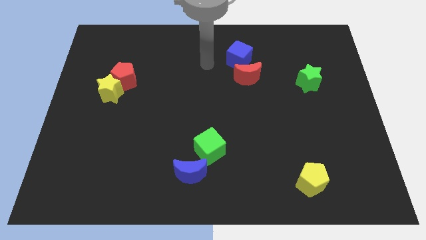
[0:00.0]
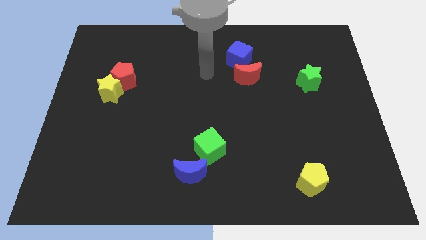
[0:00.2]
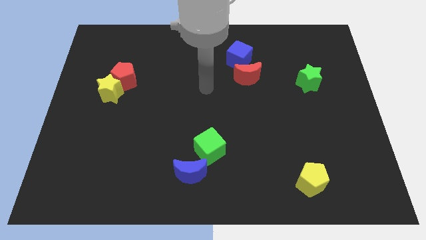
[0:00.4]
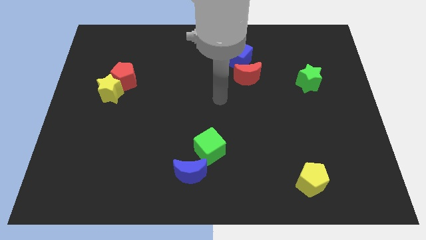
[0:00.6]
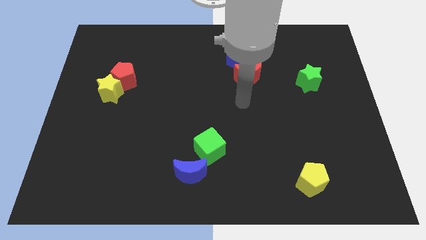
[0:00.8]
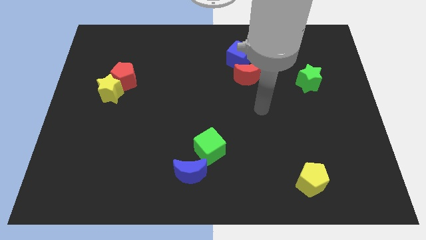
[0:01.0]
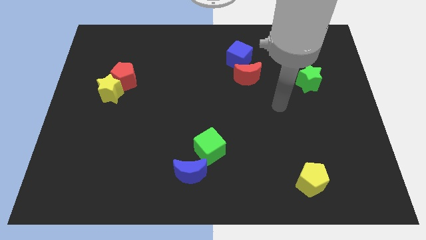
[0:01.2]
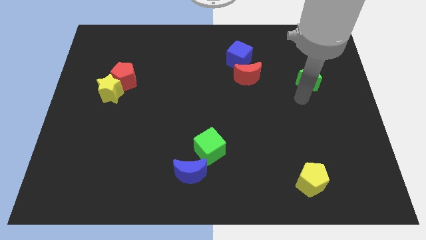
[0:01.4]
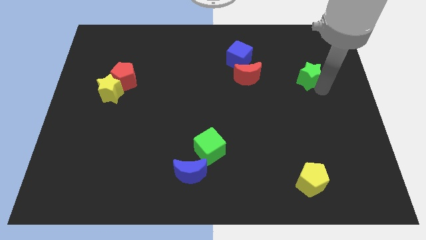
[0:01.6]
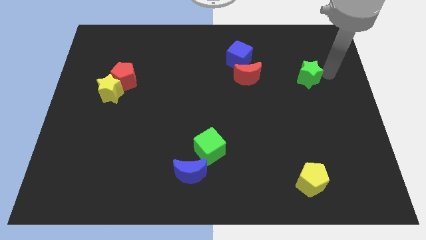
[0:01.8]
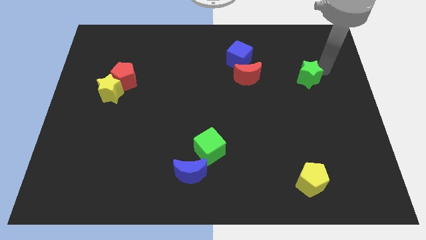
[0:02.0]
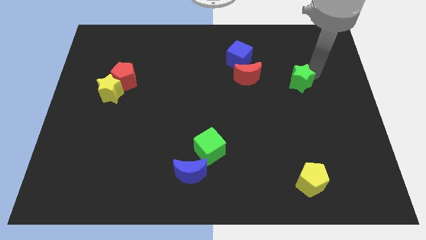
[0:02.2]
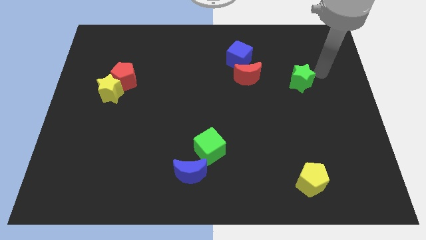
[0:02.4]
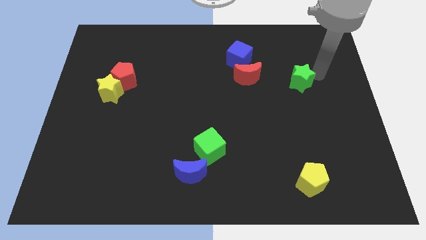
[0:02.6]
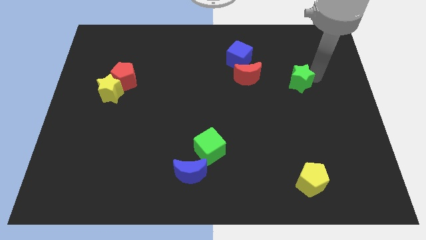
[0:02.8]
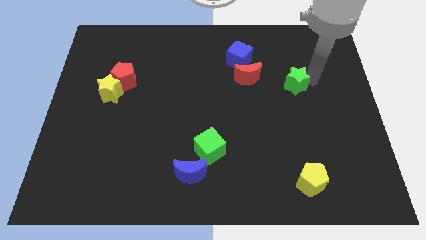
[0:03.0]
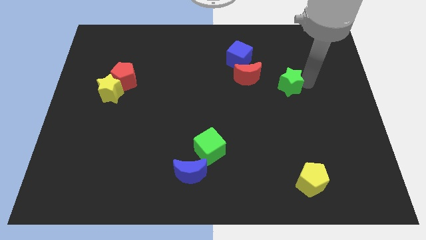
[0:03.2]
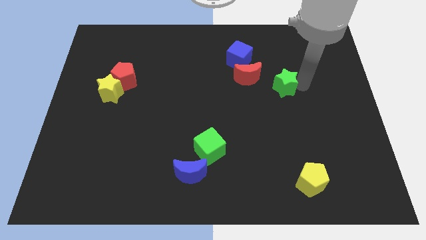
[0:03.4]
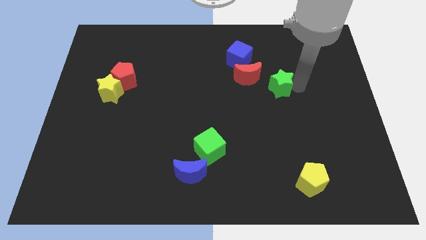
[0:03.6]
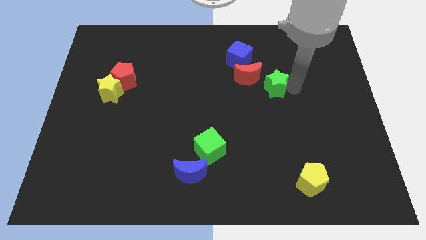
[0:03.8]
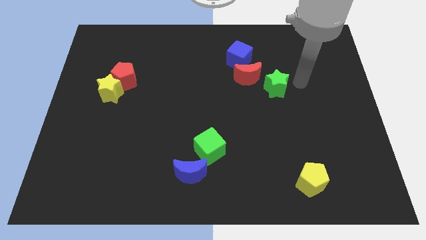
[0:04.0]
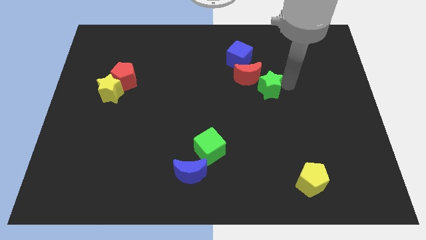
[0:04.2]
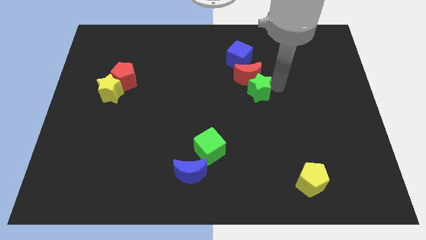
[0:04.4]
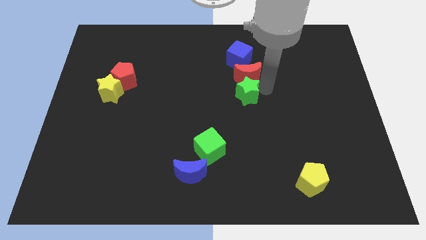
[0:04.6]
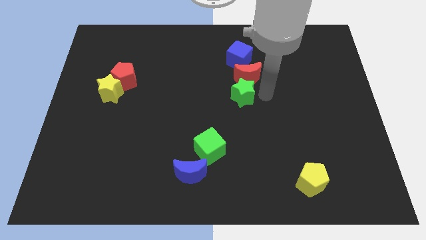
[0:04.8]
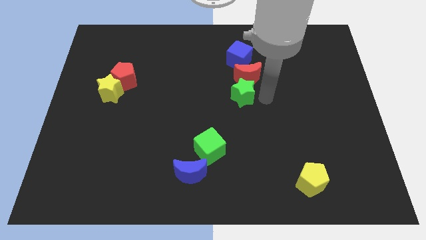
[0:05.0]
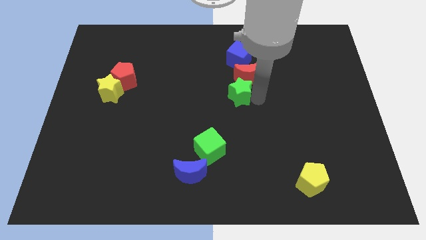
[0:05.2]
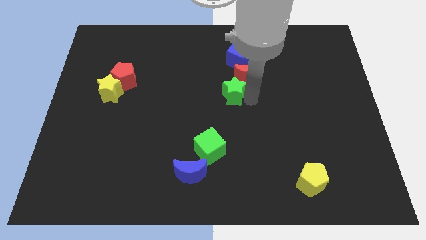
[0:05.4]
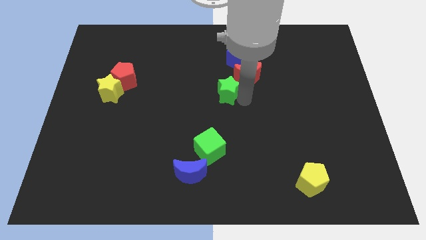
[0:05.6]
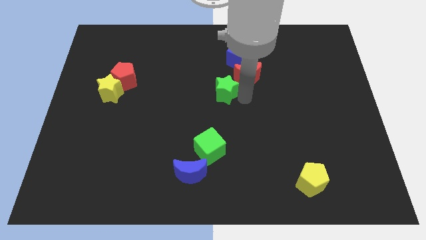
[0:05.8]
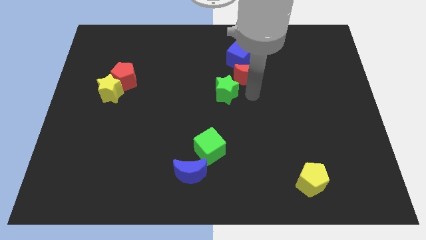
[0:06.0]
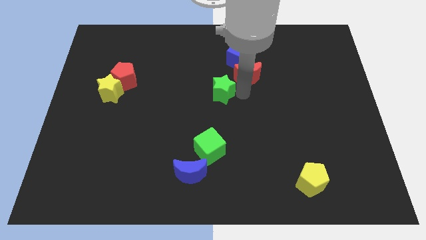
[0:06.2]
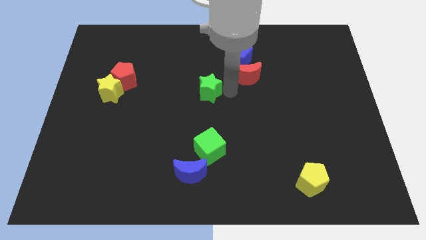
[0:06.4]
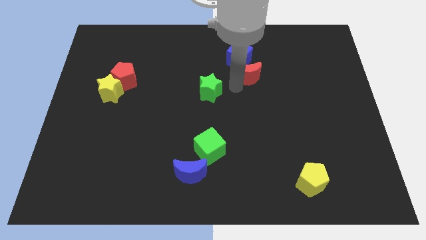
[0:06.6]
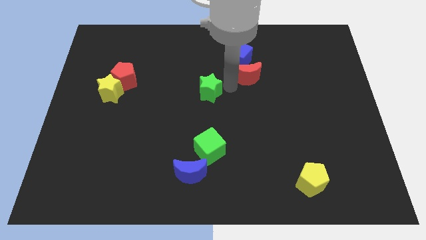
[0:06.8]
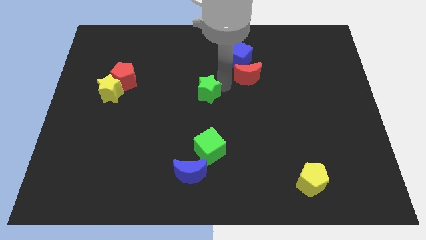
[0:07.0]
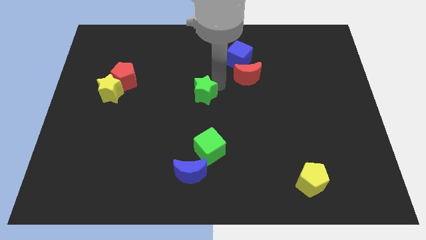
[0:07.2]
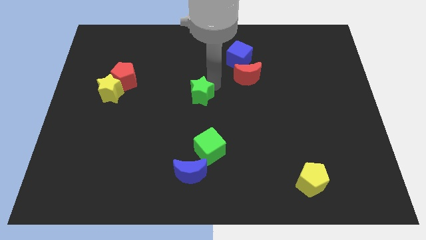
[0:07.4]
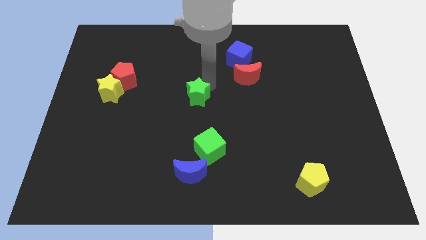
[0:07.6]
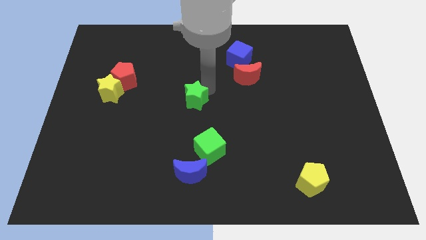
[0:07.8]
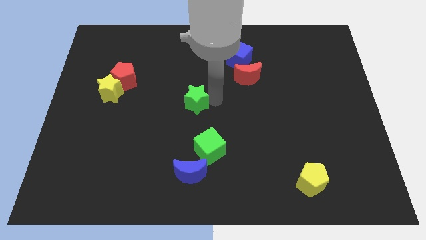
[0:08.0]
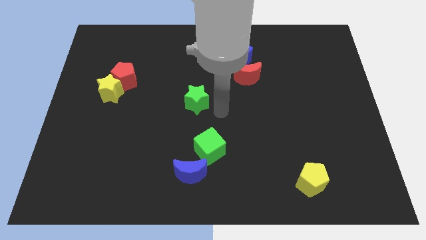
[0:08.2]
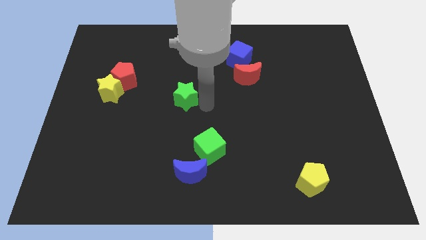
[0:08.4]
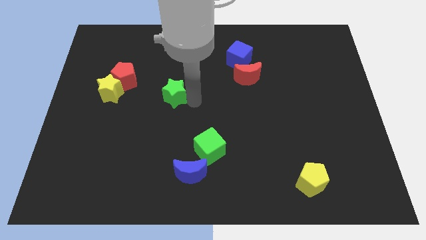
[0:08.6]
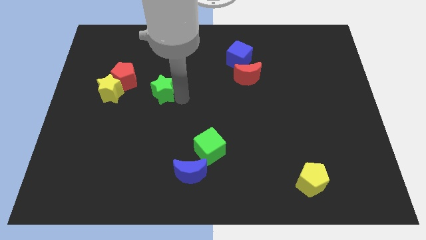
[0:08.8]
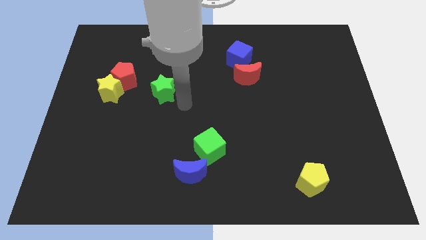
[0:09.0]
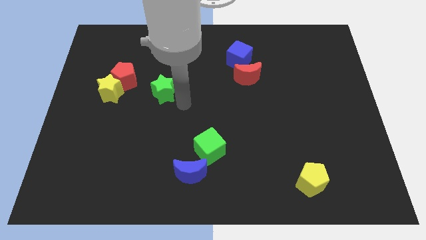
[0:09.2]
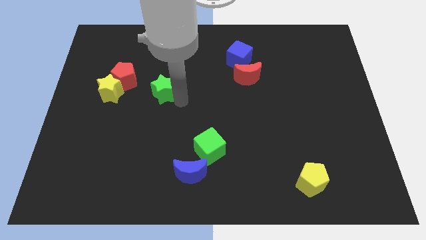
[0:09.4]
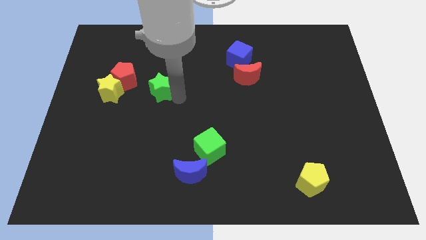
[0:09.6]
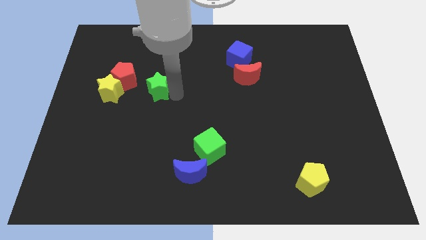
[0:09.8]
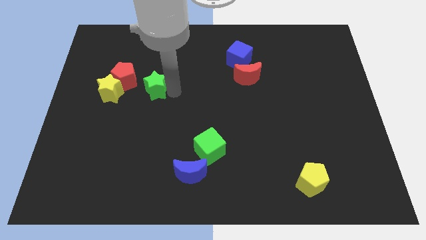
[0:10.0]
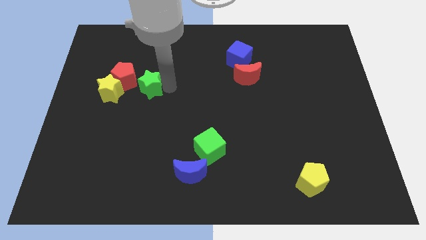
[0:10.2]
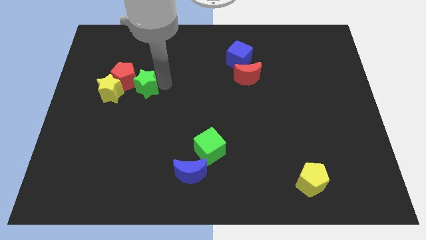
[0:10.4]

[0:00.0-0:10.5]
push the green star towards the red pentagon

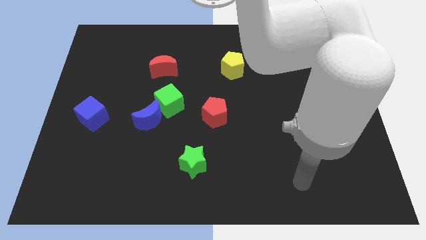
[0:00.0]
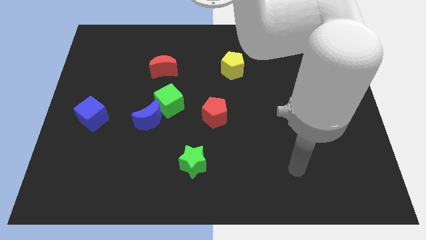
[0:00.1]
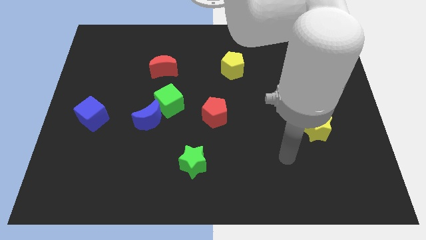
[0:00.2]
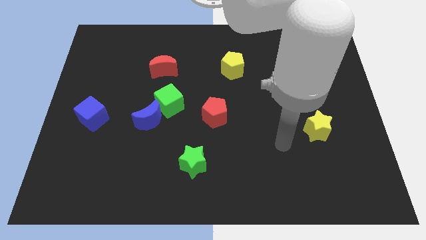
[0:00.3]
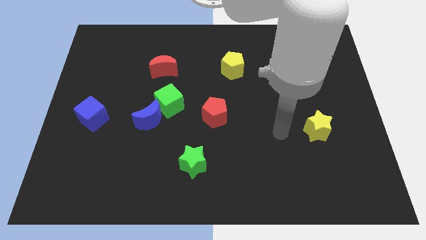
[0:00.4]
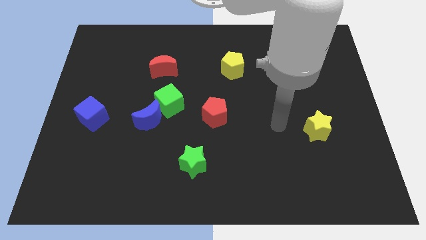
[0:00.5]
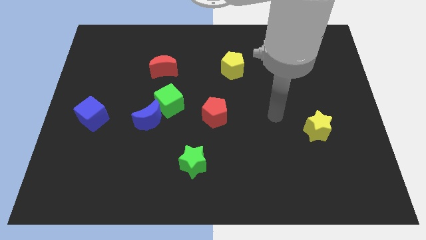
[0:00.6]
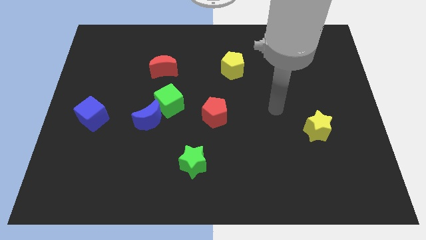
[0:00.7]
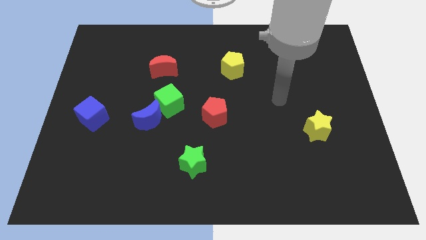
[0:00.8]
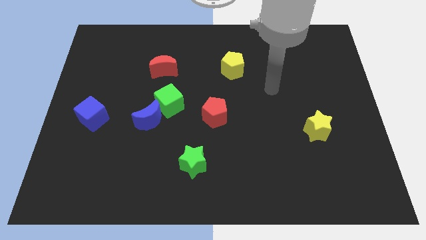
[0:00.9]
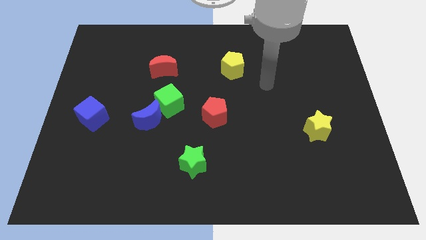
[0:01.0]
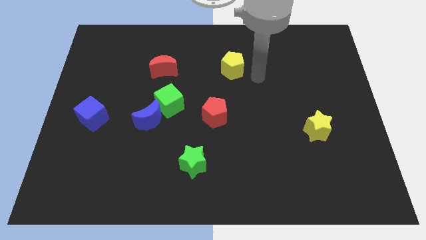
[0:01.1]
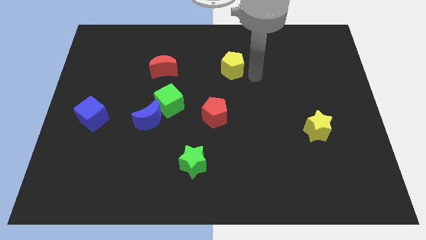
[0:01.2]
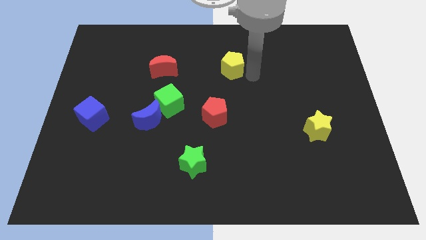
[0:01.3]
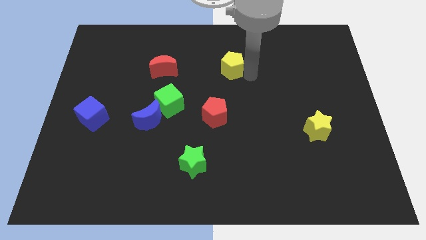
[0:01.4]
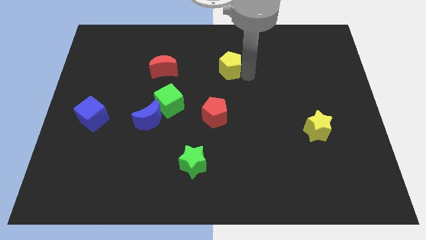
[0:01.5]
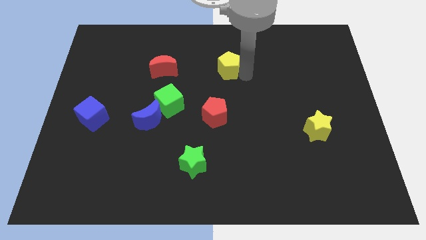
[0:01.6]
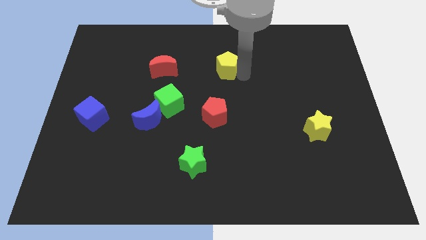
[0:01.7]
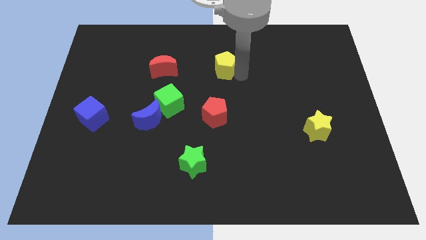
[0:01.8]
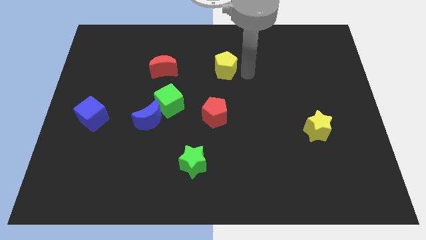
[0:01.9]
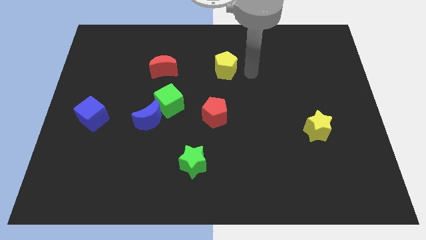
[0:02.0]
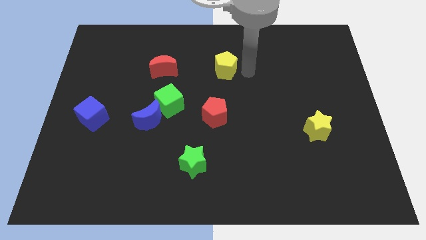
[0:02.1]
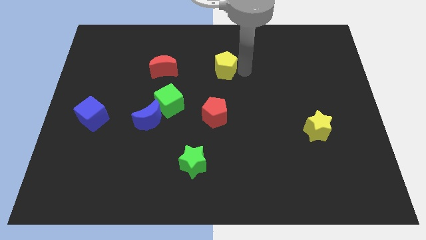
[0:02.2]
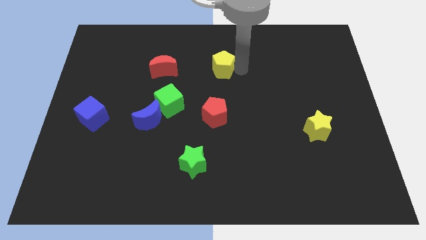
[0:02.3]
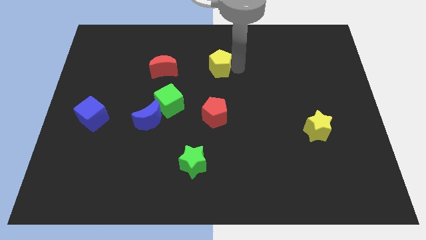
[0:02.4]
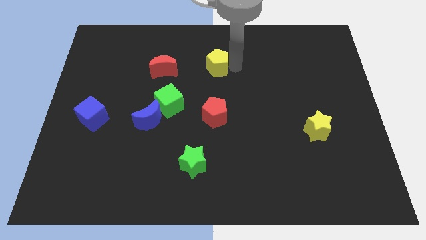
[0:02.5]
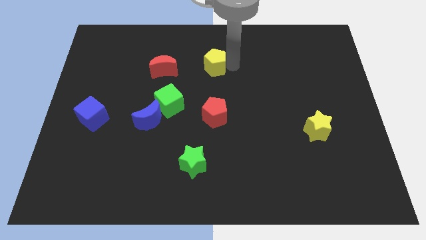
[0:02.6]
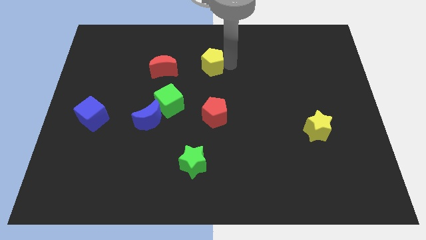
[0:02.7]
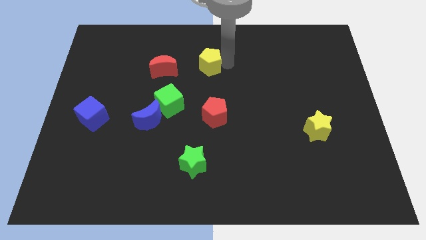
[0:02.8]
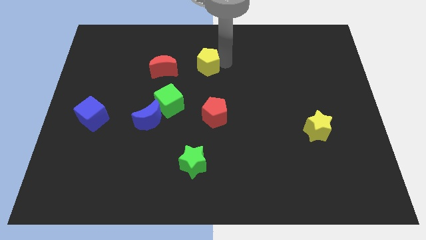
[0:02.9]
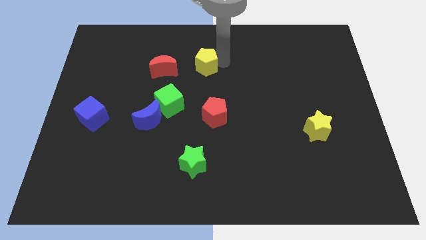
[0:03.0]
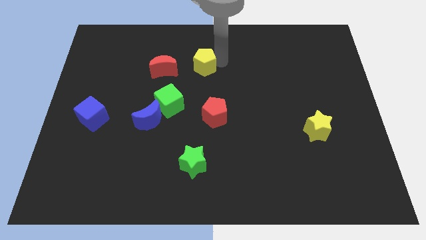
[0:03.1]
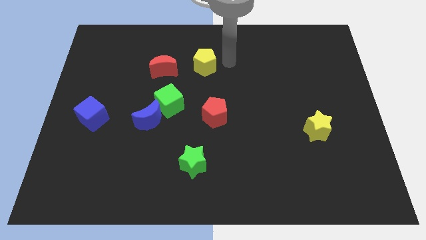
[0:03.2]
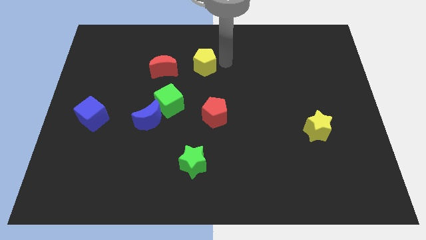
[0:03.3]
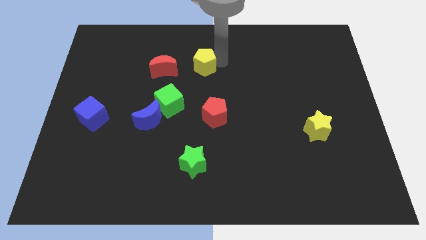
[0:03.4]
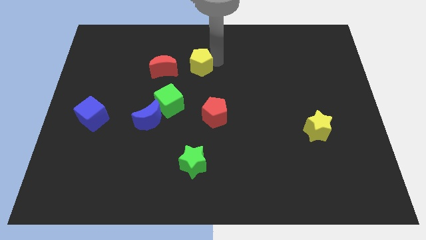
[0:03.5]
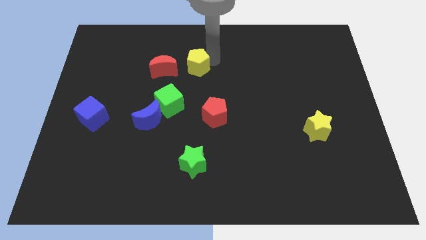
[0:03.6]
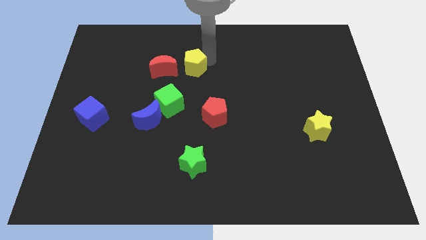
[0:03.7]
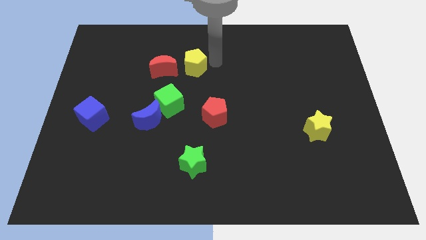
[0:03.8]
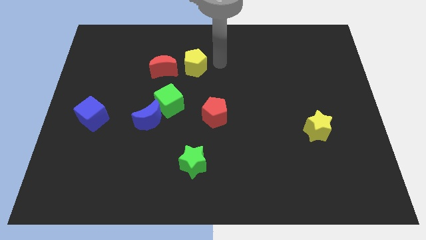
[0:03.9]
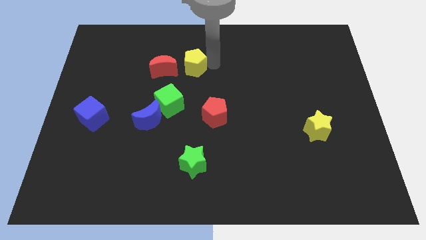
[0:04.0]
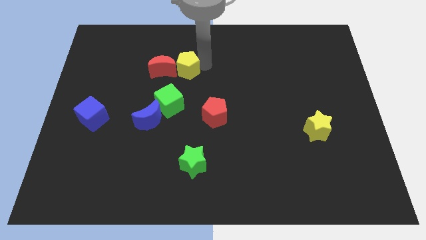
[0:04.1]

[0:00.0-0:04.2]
slide the yellow pentagon next to the red moon
